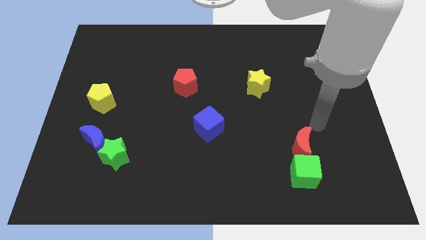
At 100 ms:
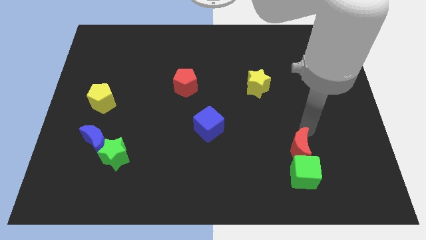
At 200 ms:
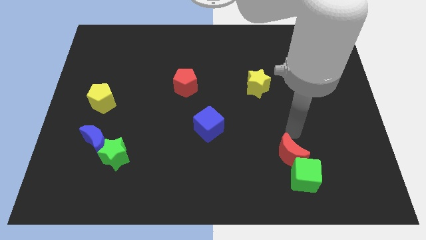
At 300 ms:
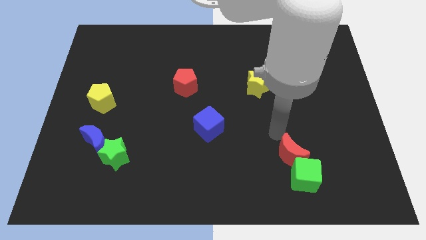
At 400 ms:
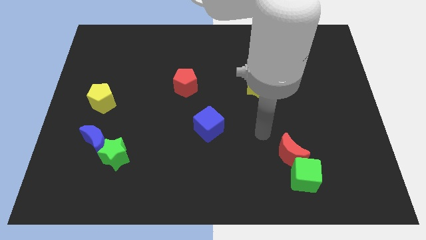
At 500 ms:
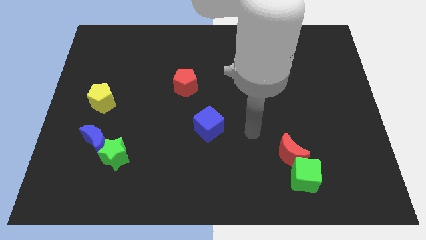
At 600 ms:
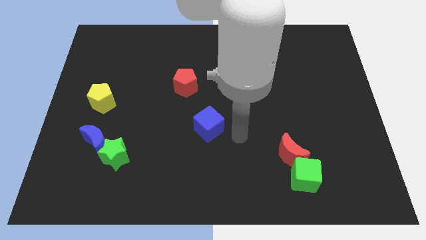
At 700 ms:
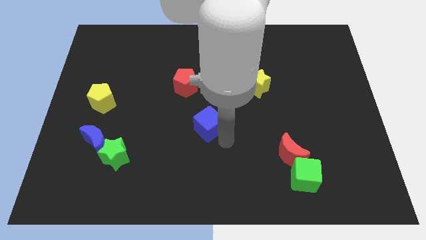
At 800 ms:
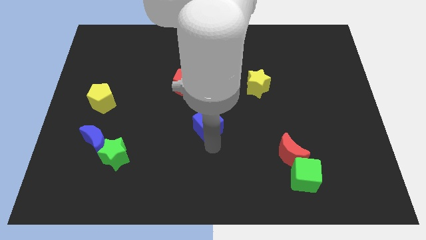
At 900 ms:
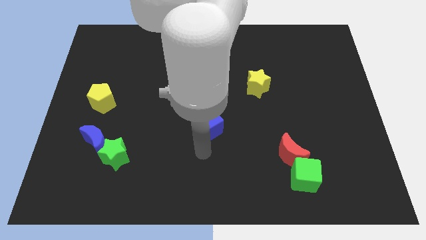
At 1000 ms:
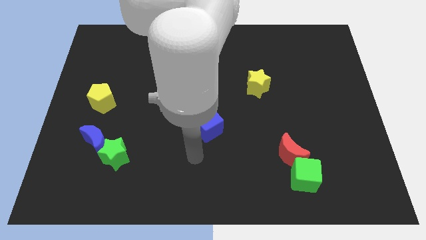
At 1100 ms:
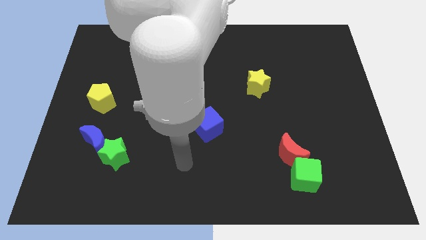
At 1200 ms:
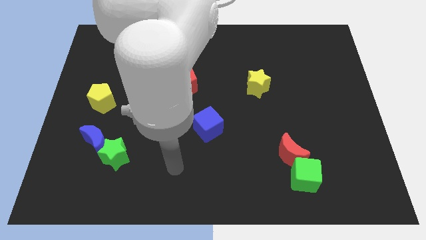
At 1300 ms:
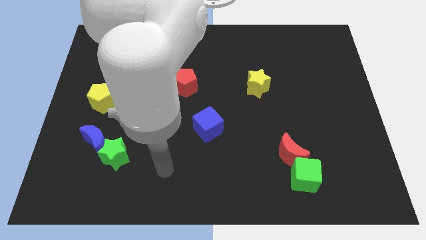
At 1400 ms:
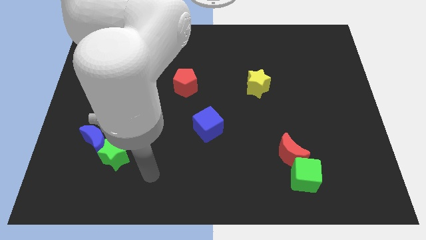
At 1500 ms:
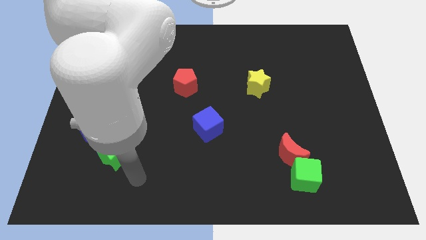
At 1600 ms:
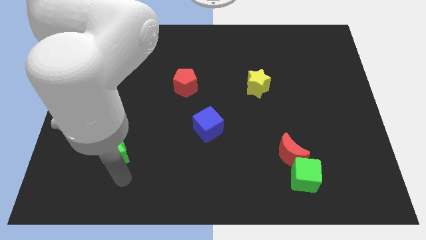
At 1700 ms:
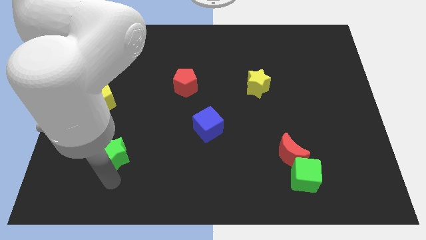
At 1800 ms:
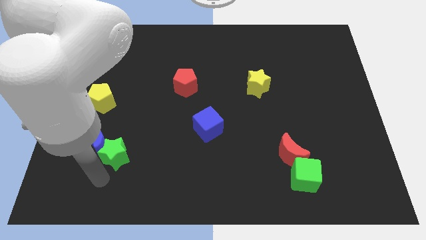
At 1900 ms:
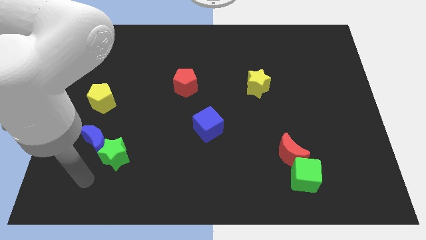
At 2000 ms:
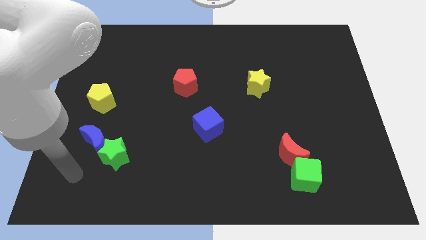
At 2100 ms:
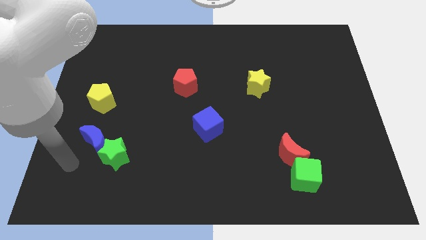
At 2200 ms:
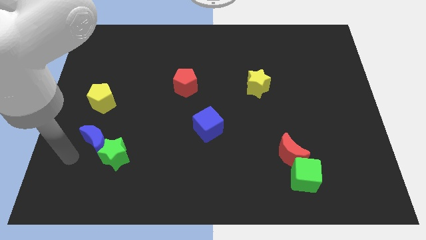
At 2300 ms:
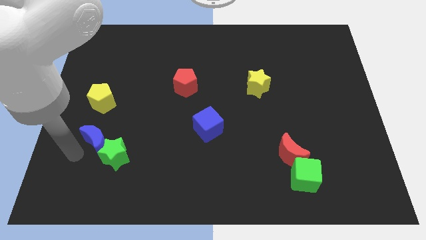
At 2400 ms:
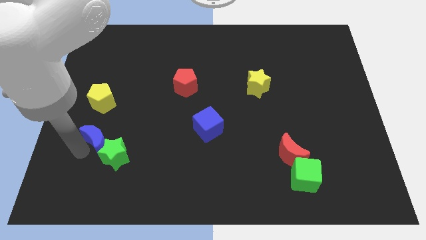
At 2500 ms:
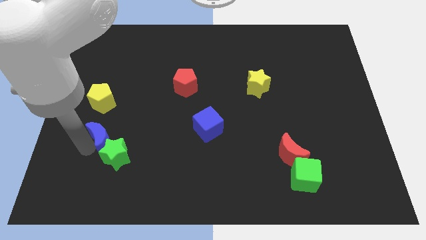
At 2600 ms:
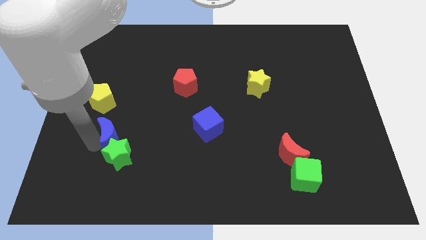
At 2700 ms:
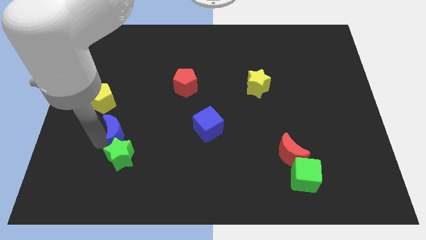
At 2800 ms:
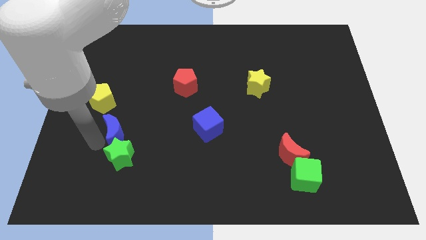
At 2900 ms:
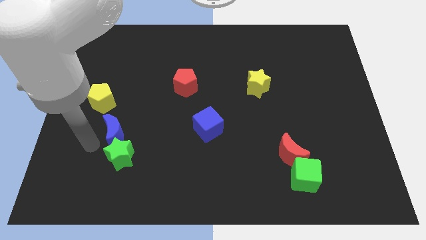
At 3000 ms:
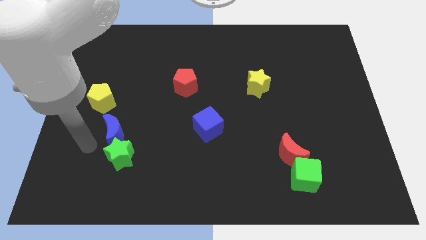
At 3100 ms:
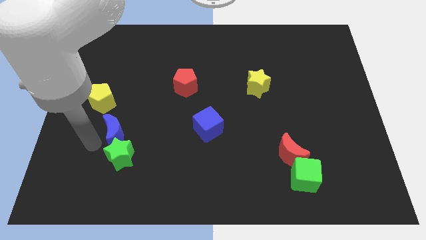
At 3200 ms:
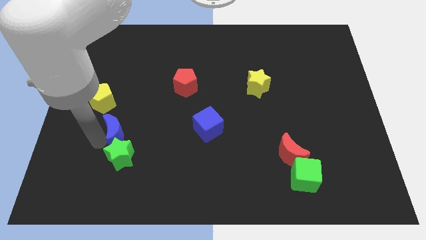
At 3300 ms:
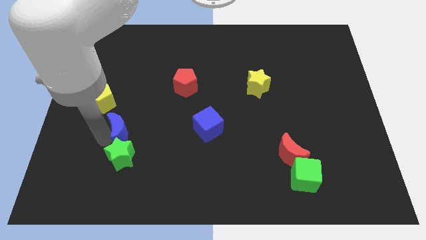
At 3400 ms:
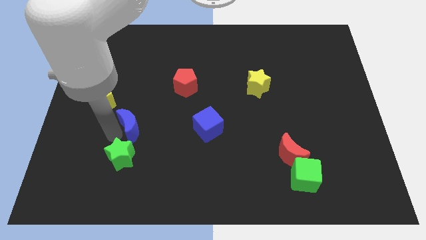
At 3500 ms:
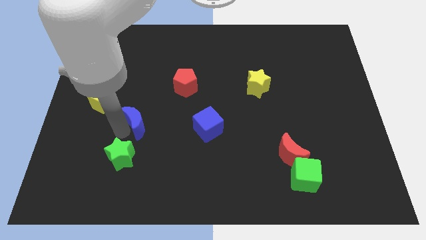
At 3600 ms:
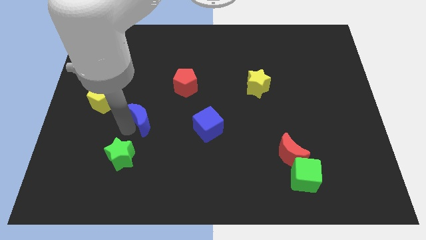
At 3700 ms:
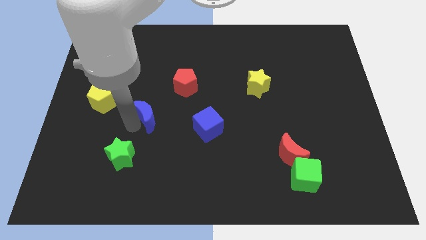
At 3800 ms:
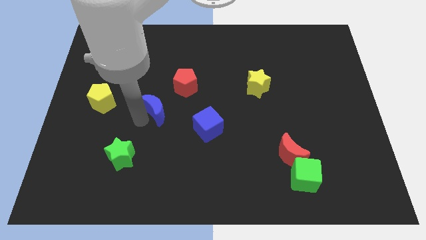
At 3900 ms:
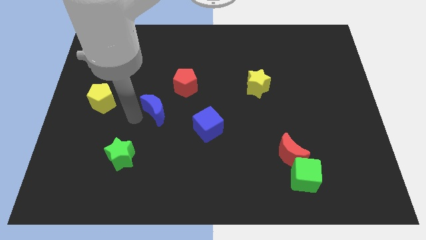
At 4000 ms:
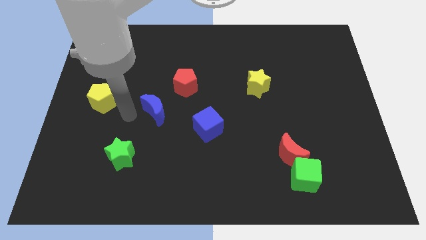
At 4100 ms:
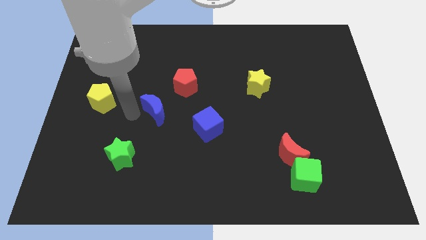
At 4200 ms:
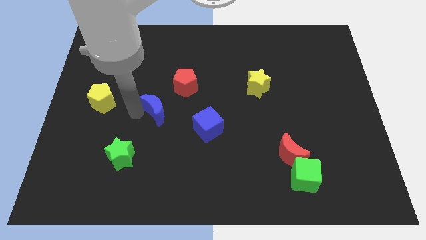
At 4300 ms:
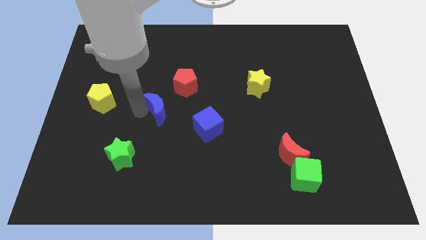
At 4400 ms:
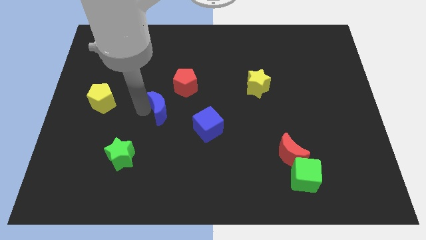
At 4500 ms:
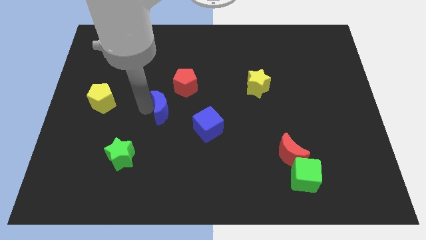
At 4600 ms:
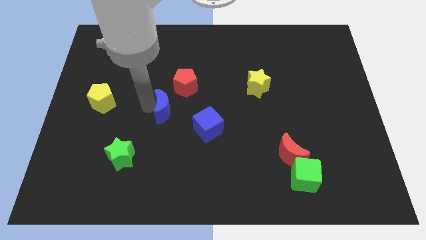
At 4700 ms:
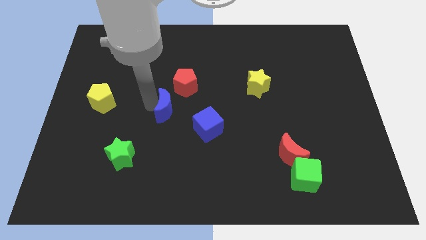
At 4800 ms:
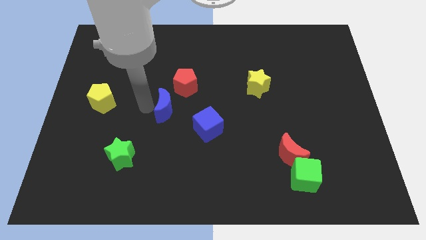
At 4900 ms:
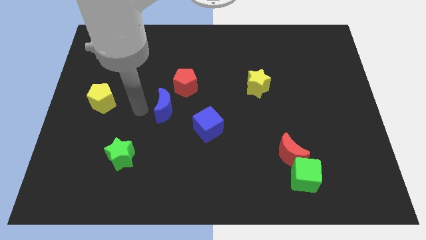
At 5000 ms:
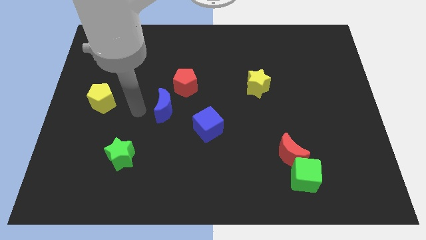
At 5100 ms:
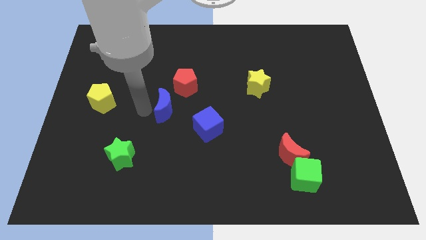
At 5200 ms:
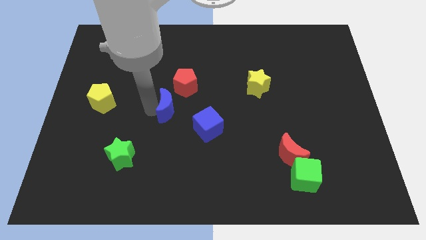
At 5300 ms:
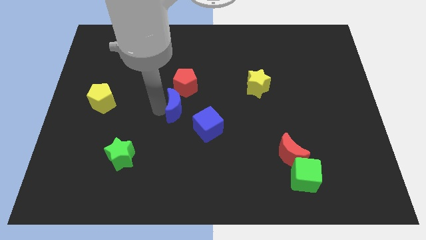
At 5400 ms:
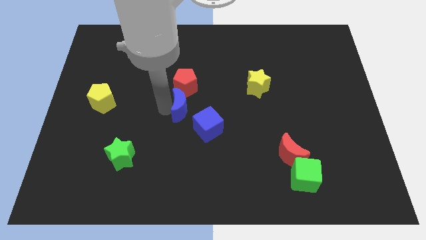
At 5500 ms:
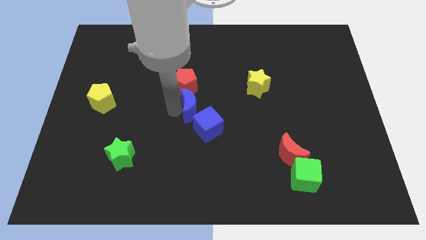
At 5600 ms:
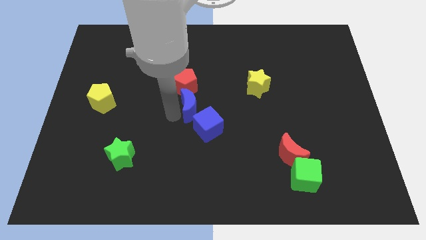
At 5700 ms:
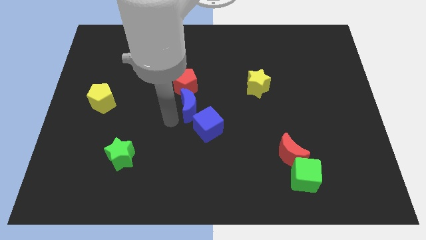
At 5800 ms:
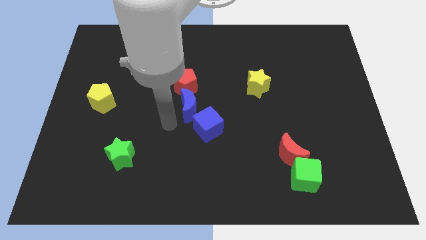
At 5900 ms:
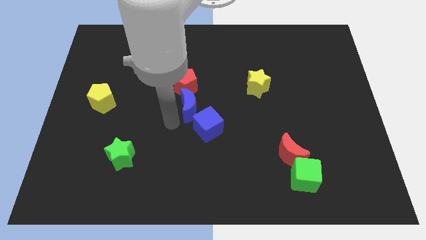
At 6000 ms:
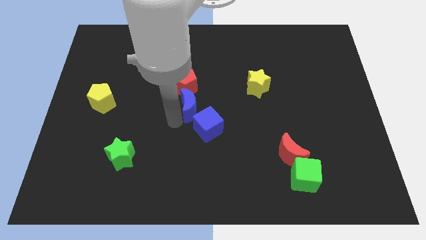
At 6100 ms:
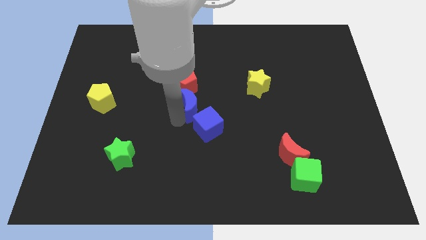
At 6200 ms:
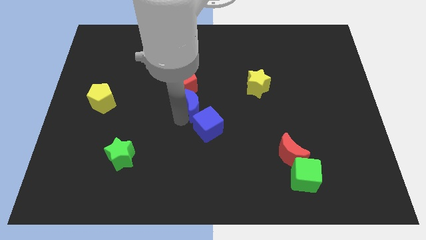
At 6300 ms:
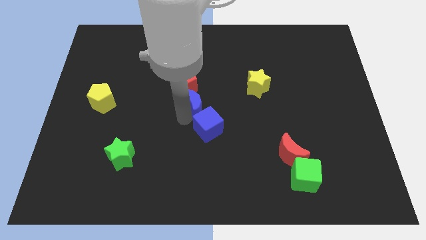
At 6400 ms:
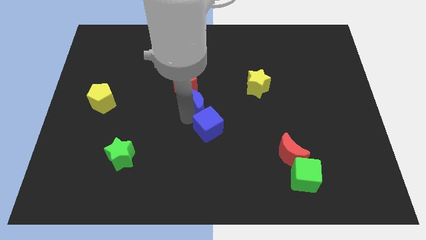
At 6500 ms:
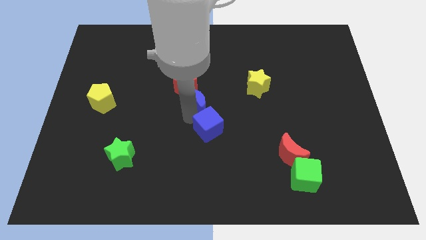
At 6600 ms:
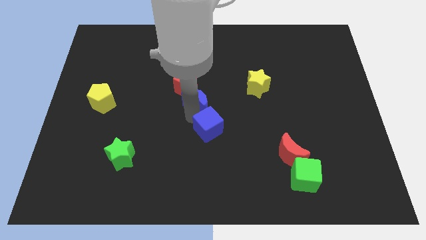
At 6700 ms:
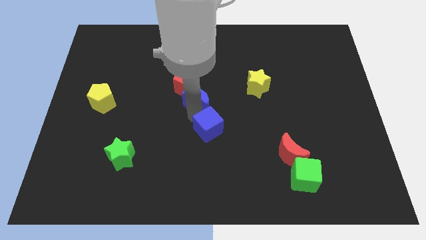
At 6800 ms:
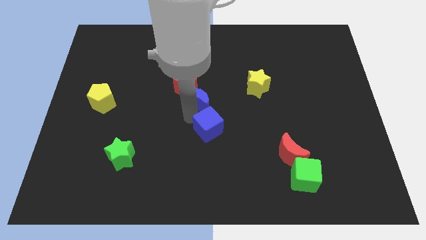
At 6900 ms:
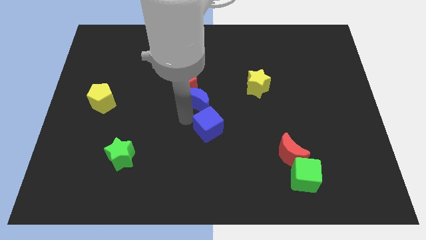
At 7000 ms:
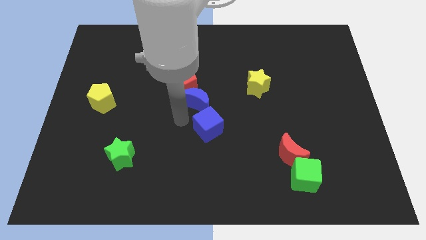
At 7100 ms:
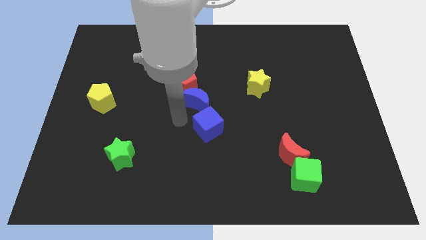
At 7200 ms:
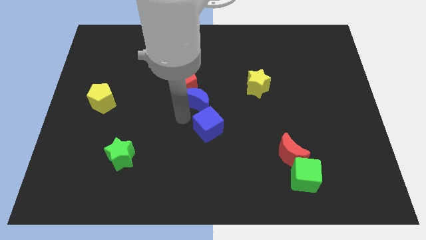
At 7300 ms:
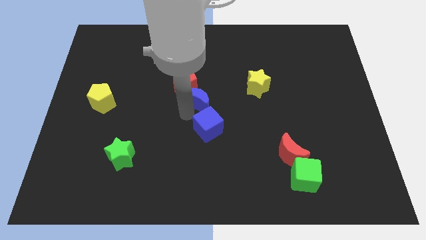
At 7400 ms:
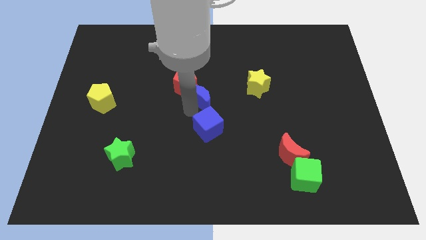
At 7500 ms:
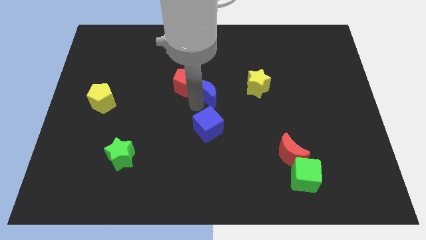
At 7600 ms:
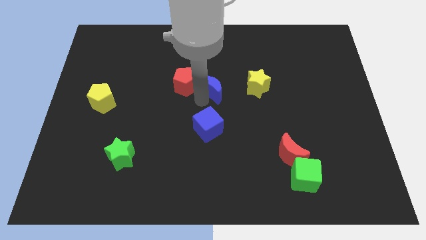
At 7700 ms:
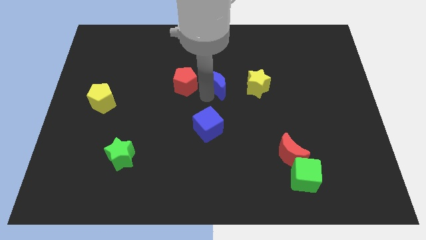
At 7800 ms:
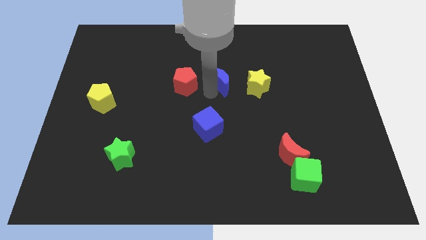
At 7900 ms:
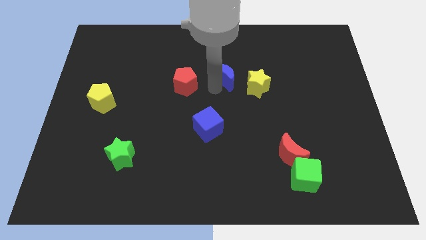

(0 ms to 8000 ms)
slide the blue moon to the top left side of the yellow star
